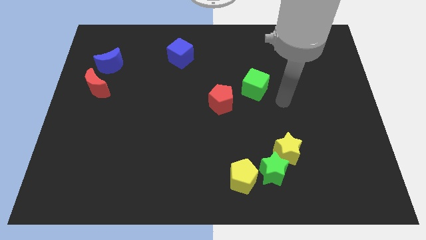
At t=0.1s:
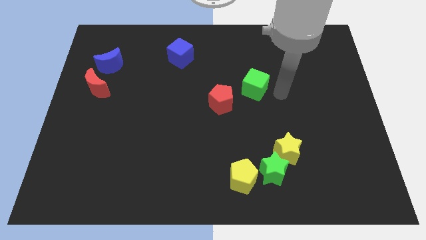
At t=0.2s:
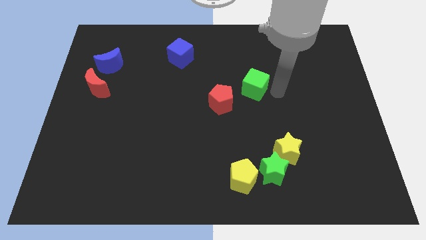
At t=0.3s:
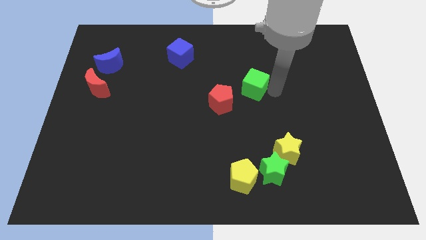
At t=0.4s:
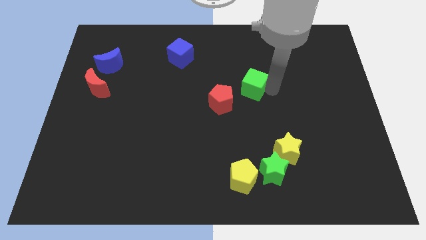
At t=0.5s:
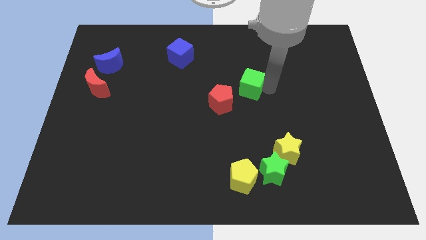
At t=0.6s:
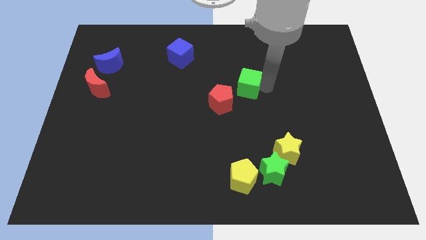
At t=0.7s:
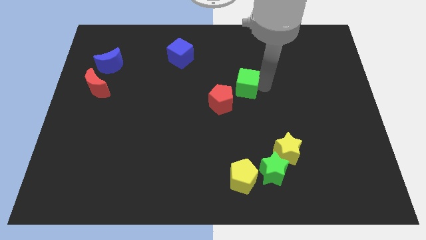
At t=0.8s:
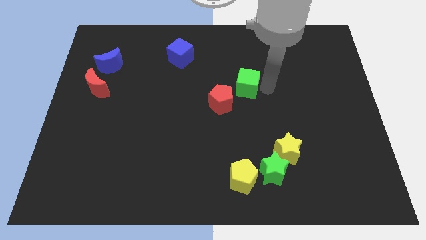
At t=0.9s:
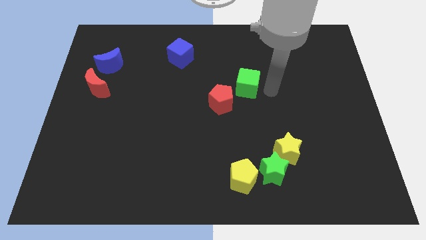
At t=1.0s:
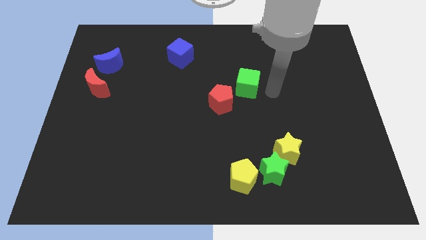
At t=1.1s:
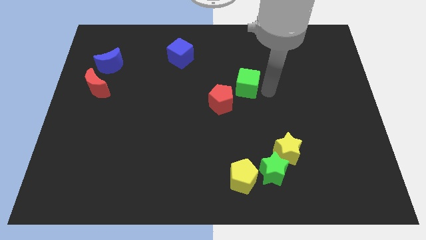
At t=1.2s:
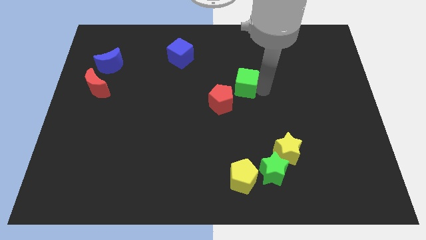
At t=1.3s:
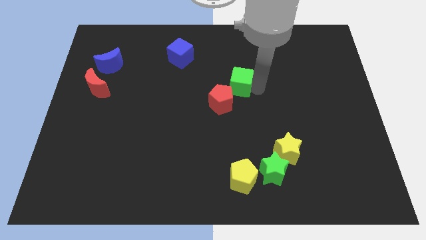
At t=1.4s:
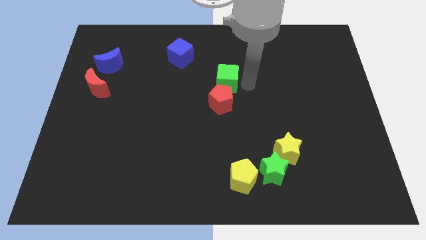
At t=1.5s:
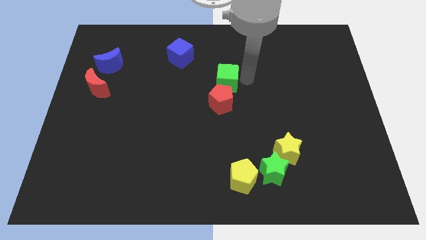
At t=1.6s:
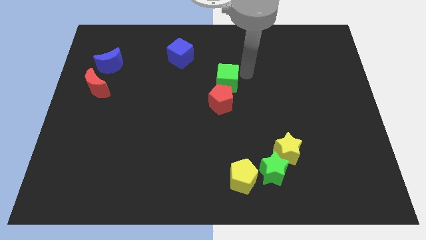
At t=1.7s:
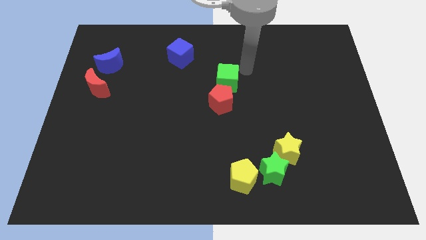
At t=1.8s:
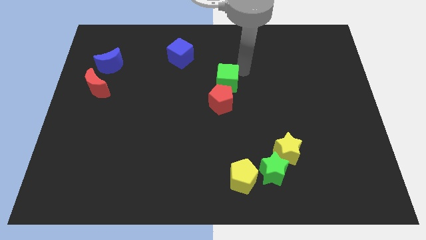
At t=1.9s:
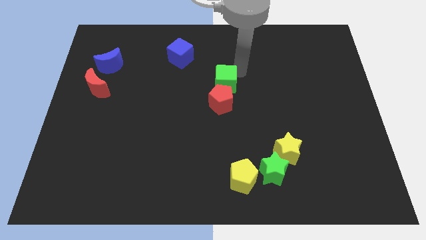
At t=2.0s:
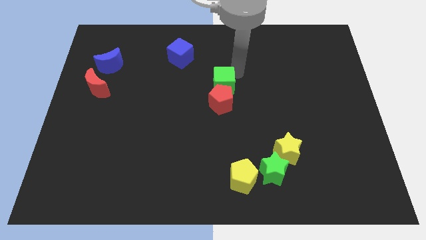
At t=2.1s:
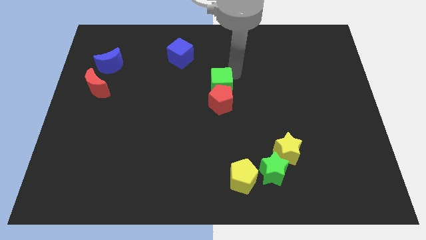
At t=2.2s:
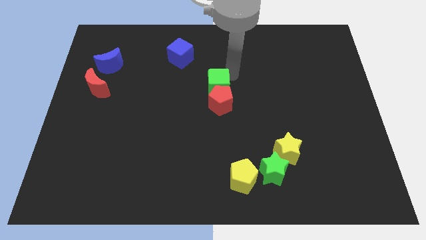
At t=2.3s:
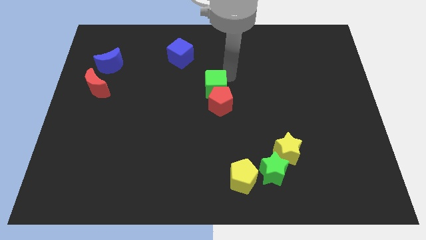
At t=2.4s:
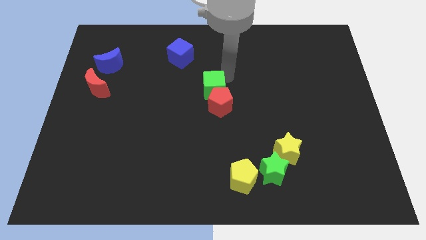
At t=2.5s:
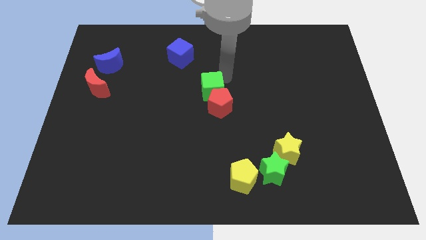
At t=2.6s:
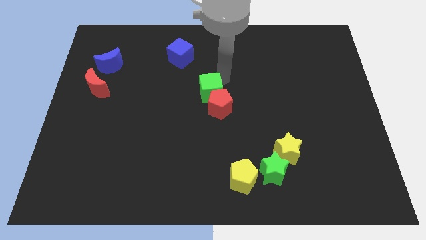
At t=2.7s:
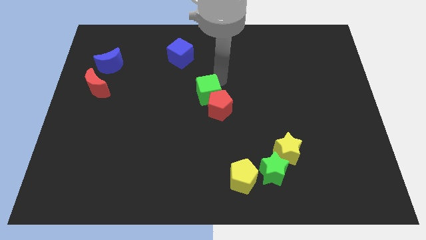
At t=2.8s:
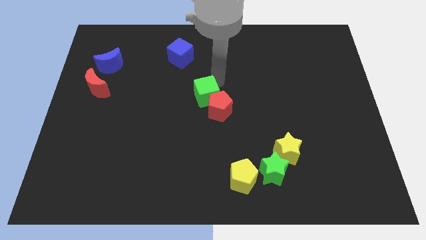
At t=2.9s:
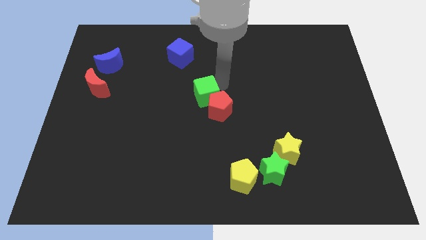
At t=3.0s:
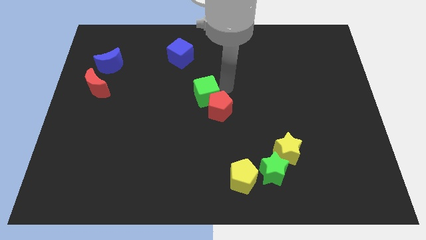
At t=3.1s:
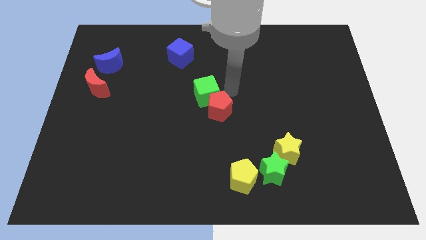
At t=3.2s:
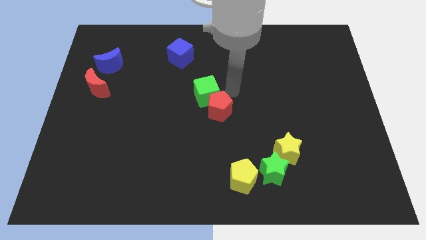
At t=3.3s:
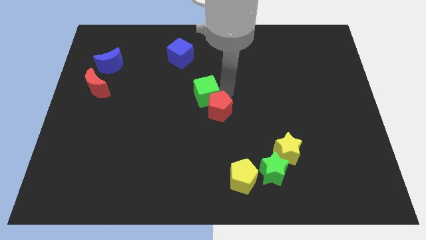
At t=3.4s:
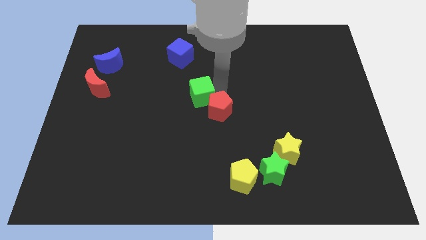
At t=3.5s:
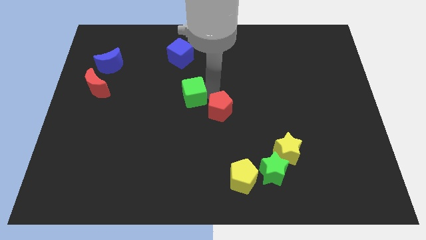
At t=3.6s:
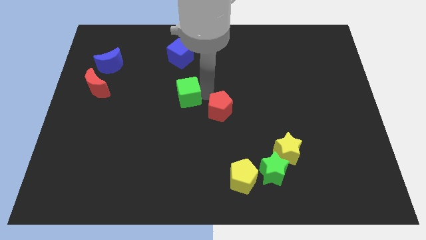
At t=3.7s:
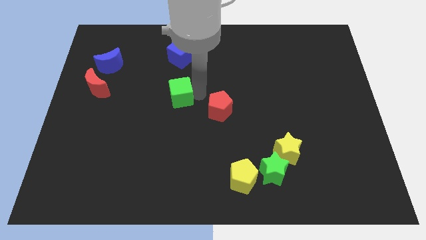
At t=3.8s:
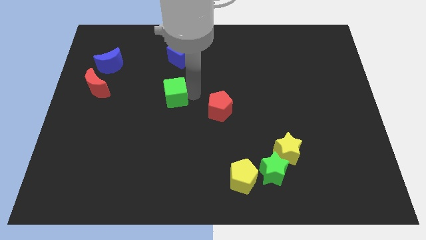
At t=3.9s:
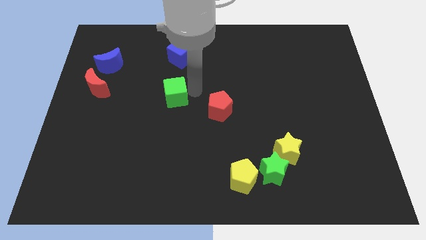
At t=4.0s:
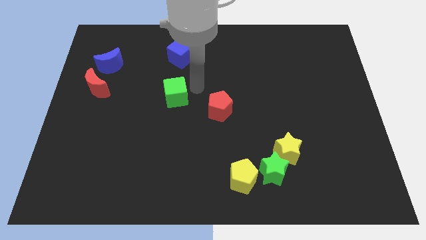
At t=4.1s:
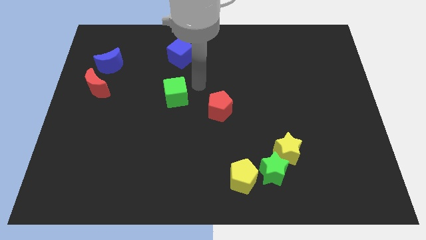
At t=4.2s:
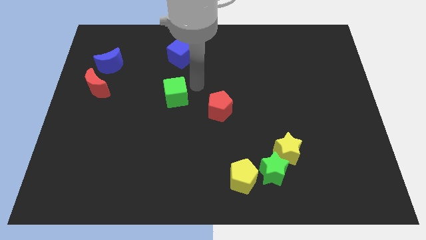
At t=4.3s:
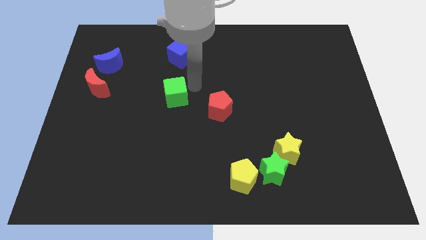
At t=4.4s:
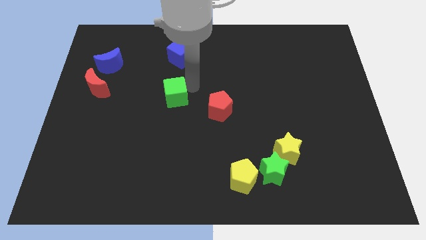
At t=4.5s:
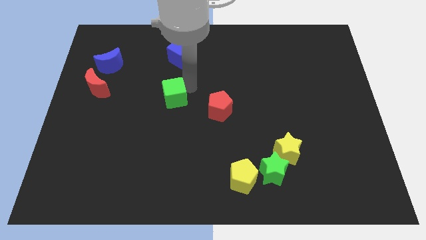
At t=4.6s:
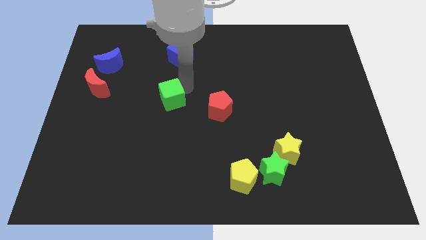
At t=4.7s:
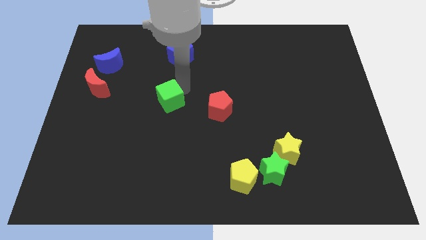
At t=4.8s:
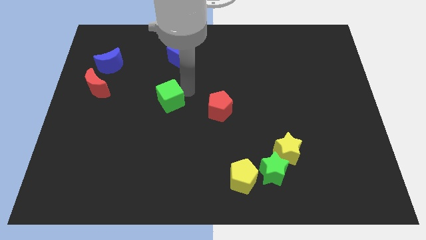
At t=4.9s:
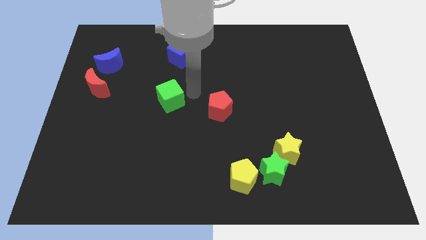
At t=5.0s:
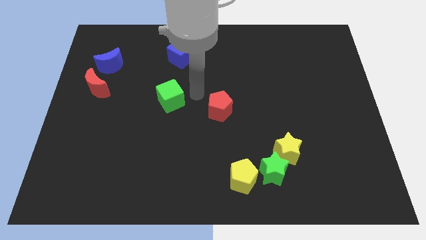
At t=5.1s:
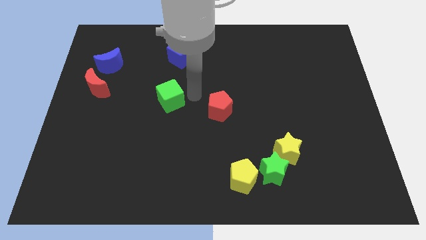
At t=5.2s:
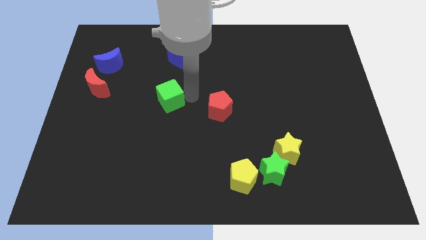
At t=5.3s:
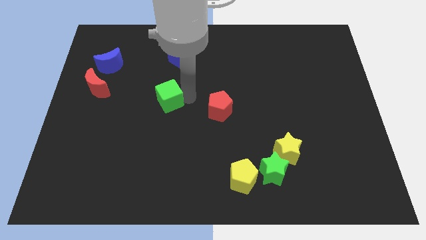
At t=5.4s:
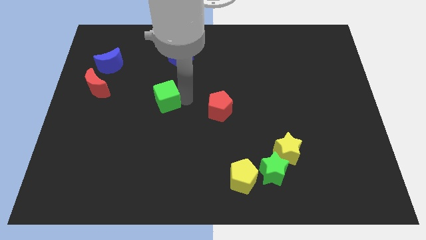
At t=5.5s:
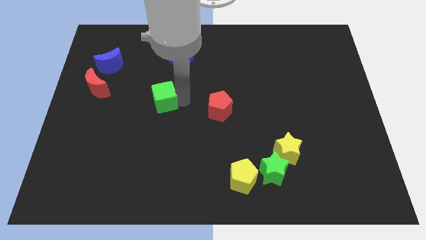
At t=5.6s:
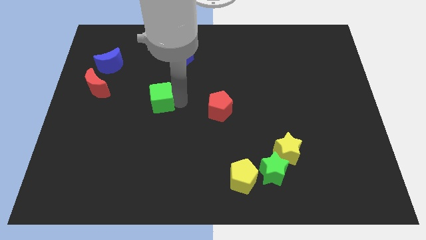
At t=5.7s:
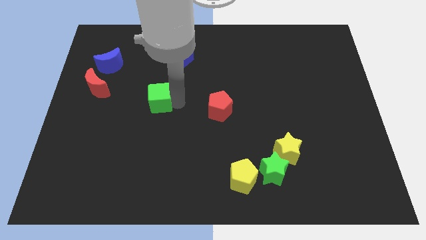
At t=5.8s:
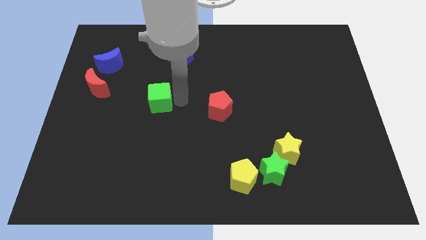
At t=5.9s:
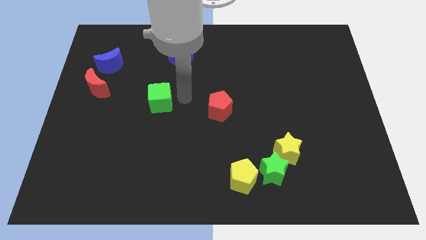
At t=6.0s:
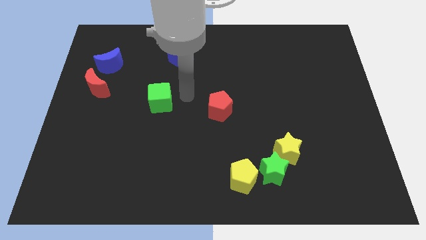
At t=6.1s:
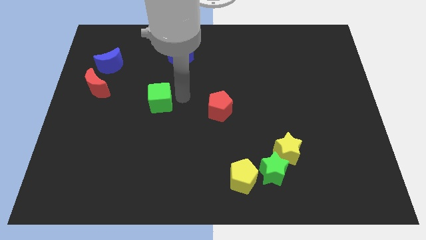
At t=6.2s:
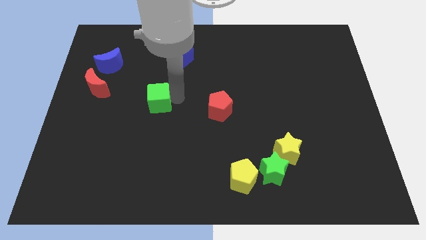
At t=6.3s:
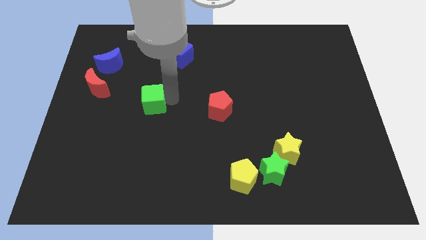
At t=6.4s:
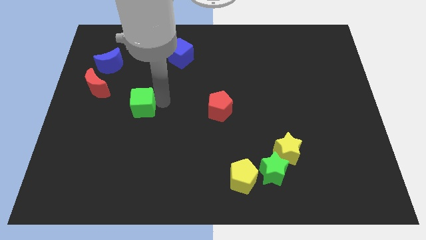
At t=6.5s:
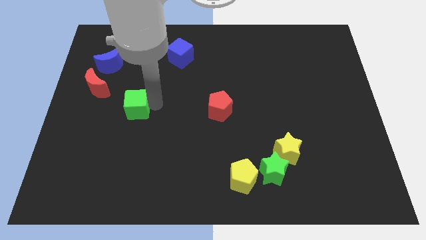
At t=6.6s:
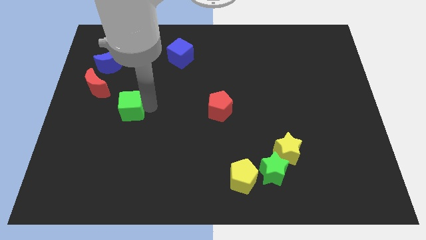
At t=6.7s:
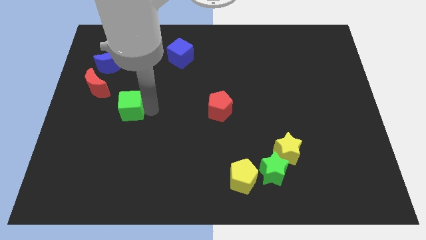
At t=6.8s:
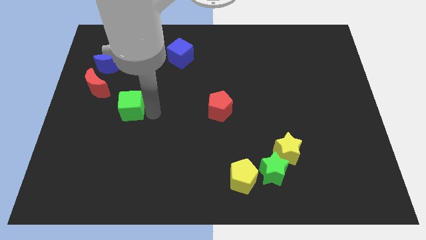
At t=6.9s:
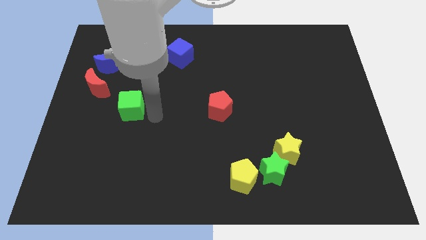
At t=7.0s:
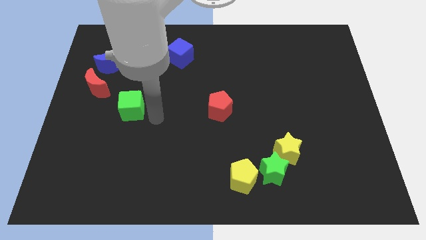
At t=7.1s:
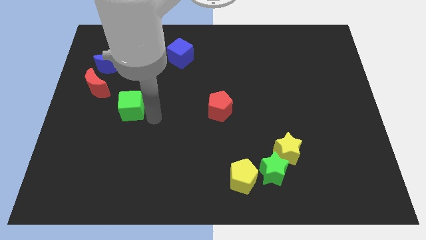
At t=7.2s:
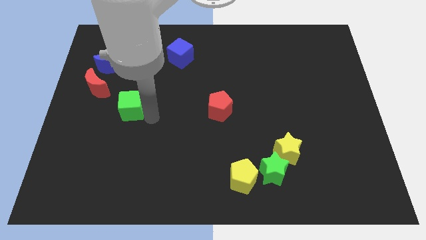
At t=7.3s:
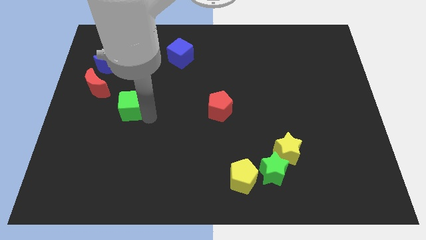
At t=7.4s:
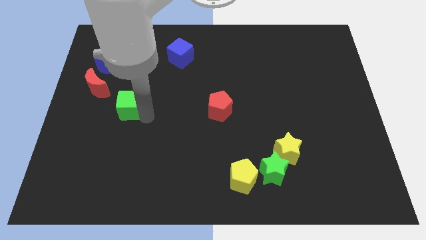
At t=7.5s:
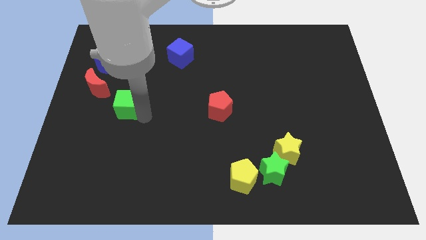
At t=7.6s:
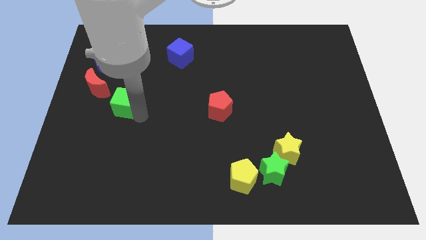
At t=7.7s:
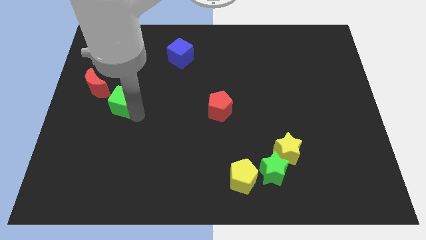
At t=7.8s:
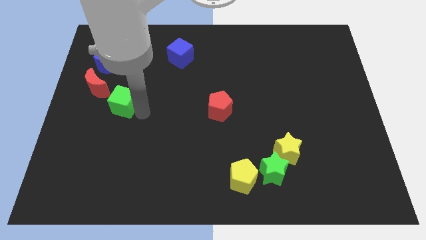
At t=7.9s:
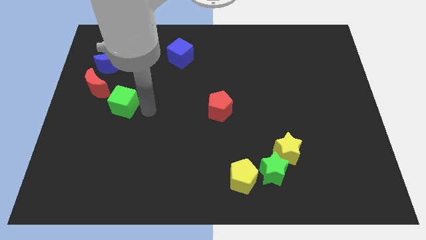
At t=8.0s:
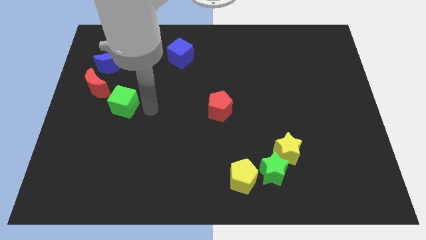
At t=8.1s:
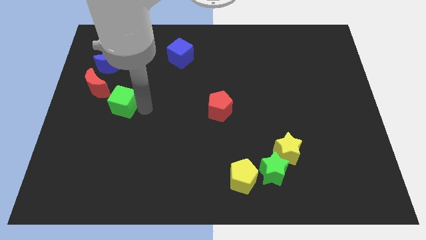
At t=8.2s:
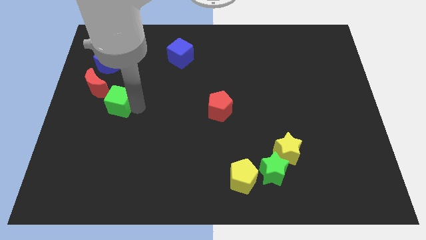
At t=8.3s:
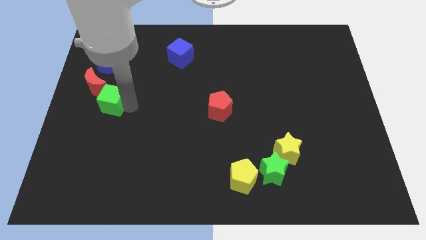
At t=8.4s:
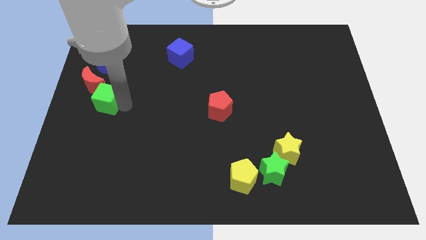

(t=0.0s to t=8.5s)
slide the green cube to the left side
